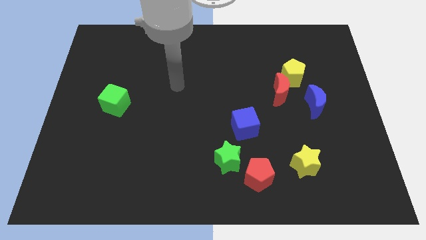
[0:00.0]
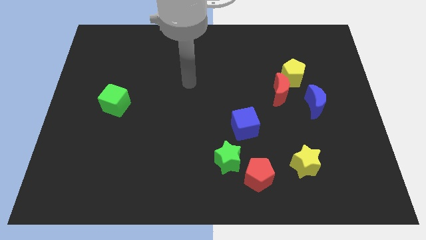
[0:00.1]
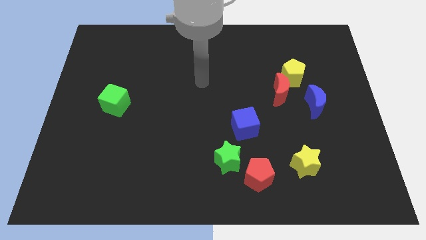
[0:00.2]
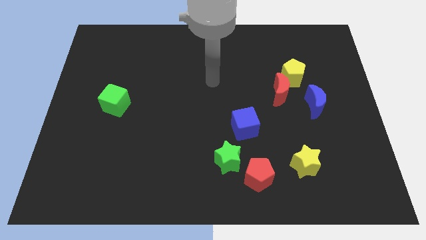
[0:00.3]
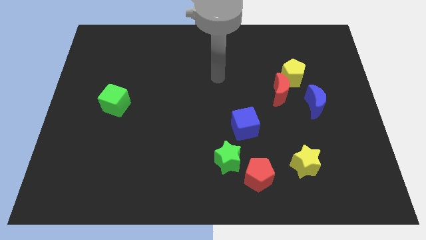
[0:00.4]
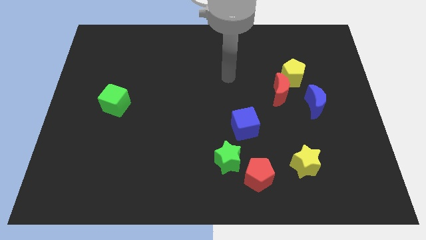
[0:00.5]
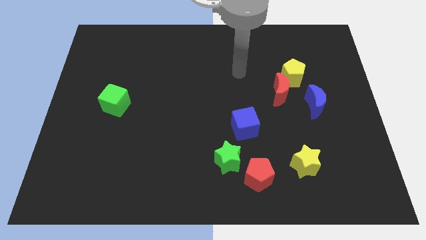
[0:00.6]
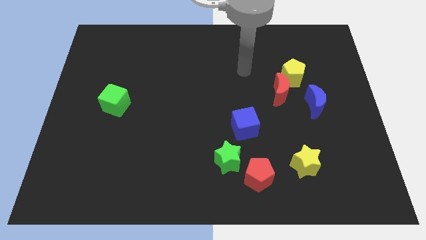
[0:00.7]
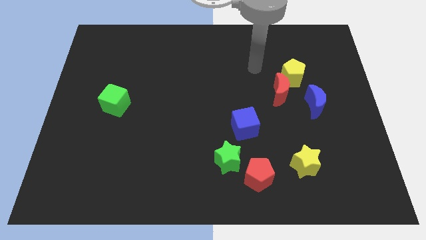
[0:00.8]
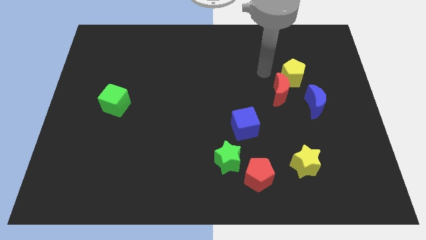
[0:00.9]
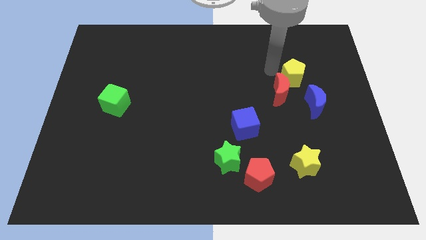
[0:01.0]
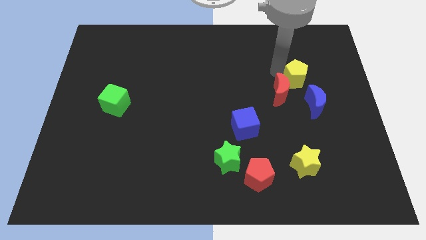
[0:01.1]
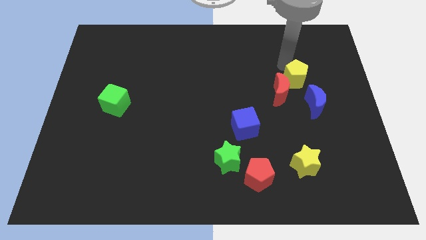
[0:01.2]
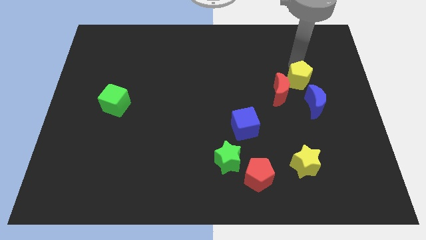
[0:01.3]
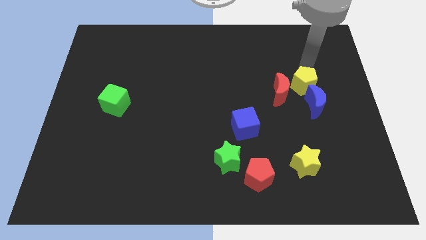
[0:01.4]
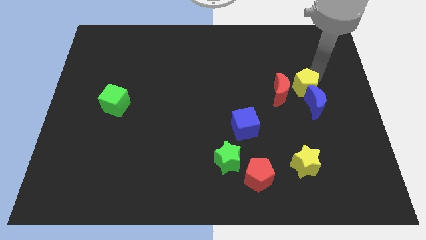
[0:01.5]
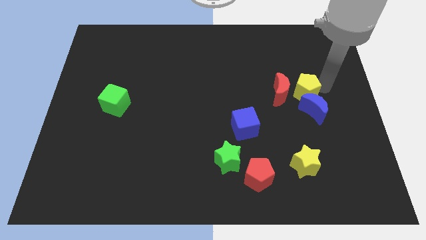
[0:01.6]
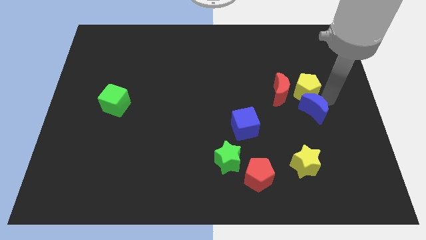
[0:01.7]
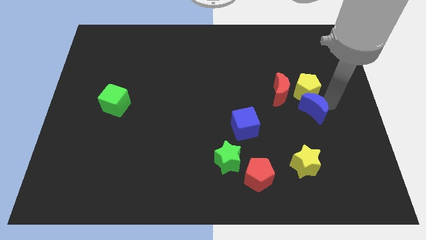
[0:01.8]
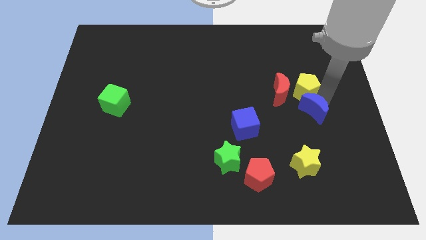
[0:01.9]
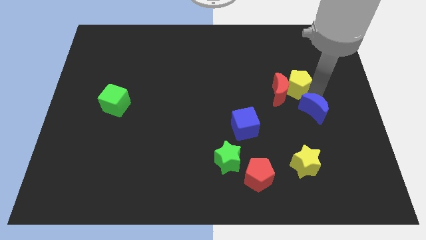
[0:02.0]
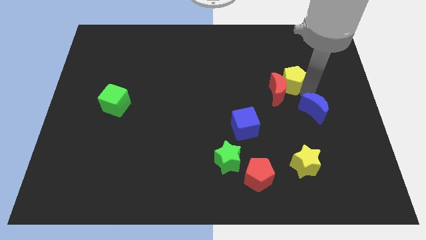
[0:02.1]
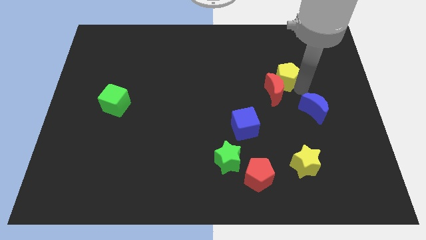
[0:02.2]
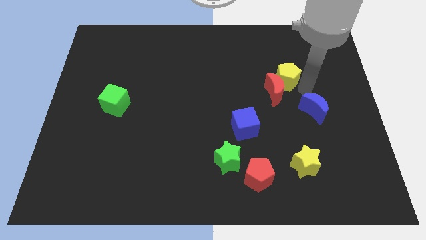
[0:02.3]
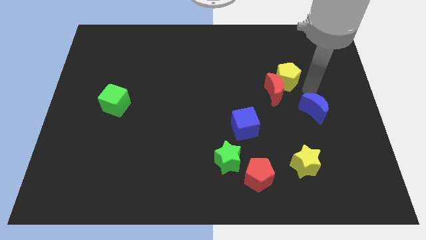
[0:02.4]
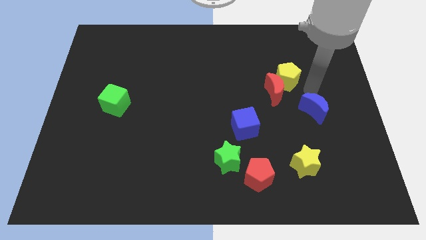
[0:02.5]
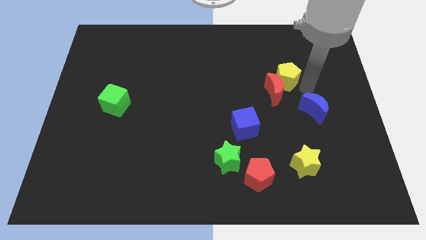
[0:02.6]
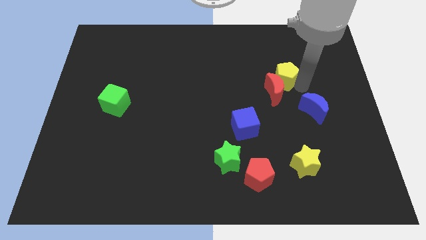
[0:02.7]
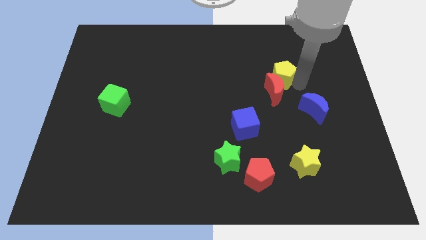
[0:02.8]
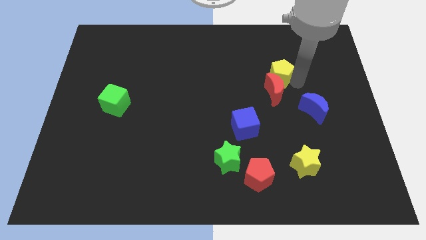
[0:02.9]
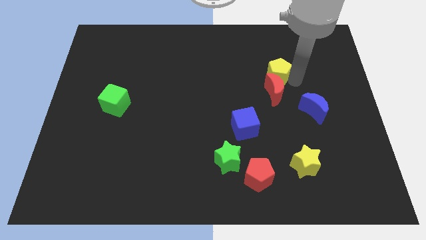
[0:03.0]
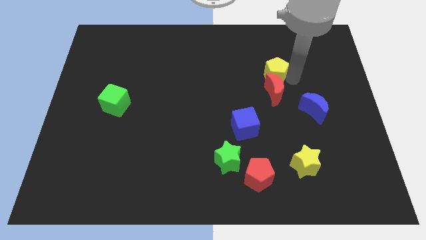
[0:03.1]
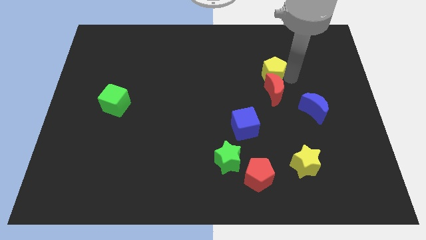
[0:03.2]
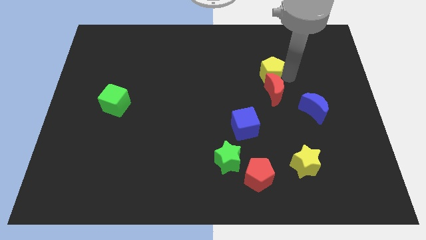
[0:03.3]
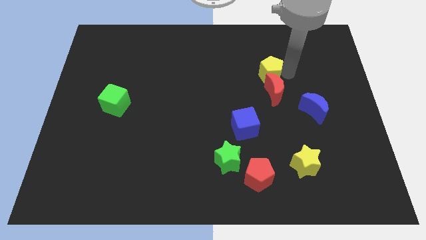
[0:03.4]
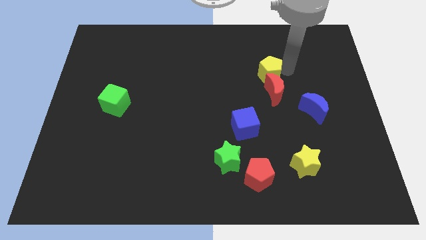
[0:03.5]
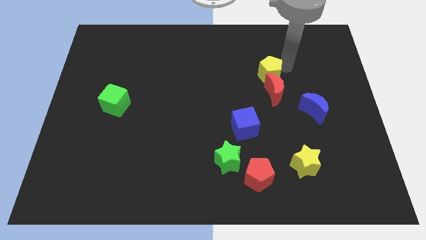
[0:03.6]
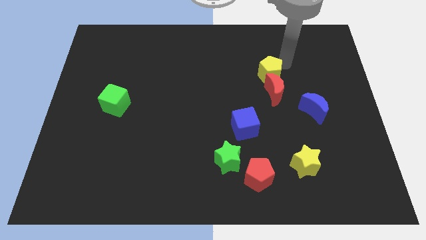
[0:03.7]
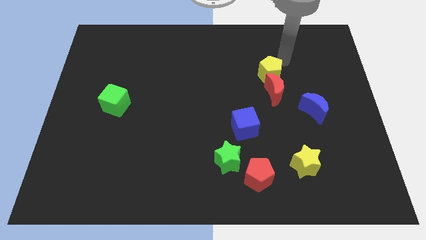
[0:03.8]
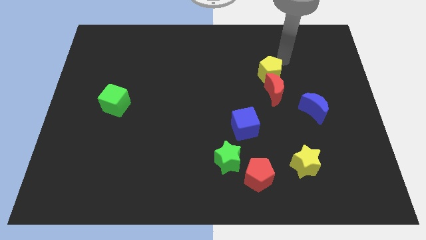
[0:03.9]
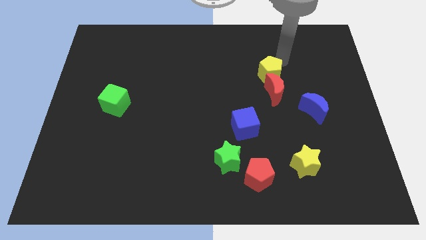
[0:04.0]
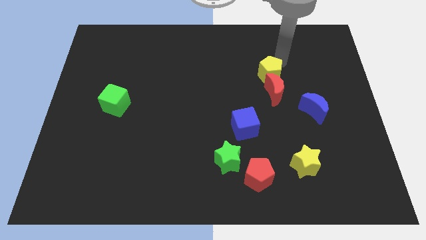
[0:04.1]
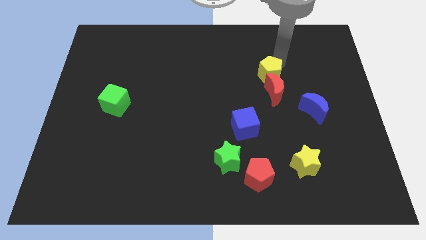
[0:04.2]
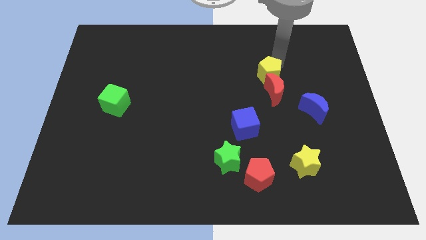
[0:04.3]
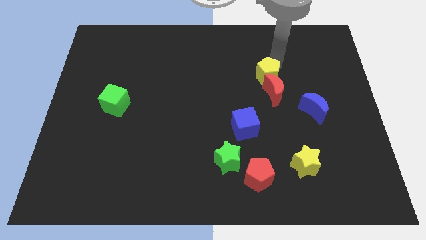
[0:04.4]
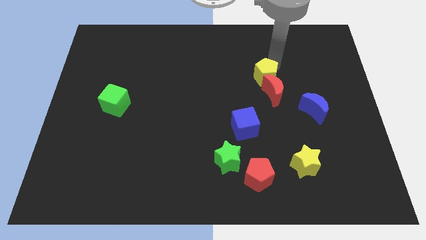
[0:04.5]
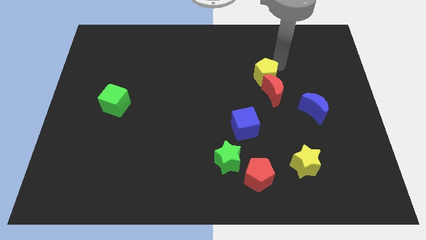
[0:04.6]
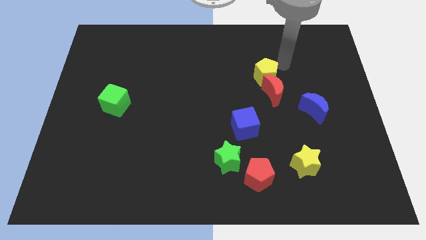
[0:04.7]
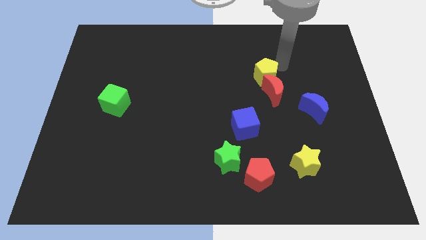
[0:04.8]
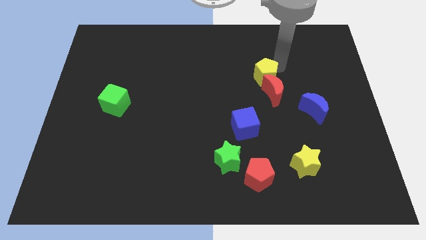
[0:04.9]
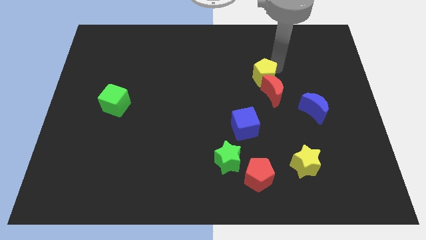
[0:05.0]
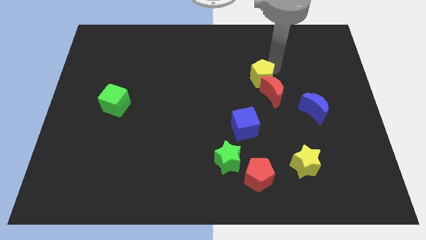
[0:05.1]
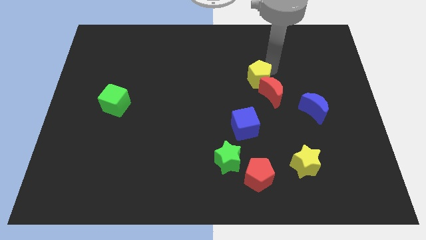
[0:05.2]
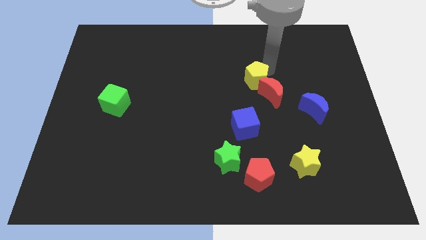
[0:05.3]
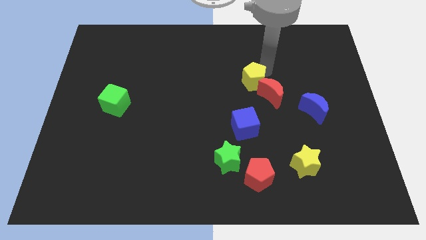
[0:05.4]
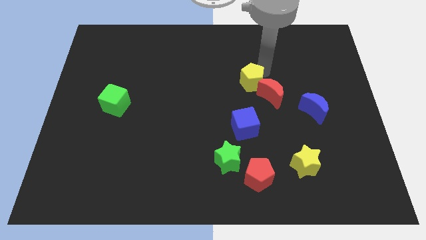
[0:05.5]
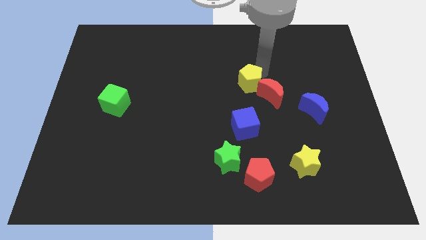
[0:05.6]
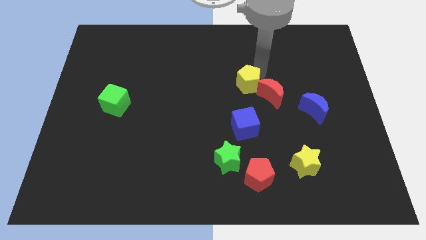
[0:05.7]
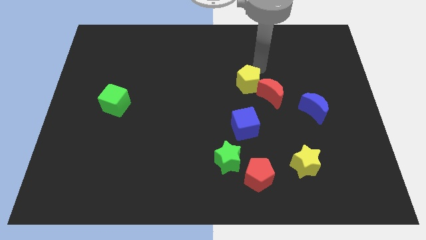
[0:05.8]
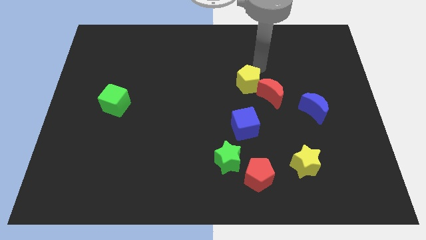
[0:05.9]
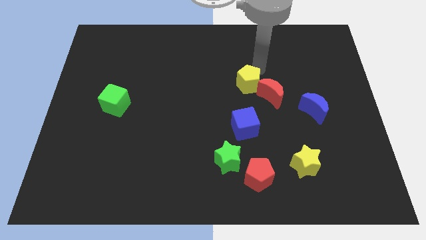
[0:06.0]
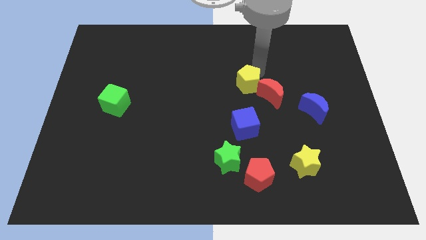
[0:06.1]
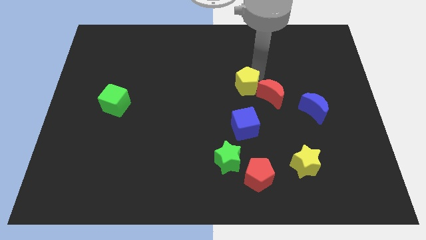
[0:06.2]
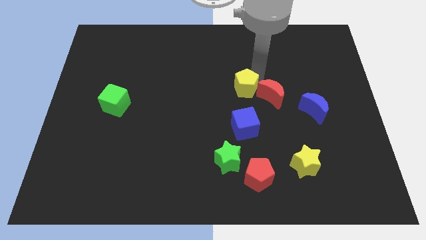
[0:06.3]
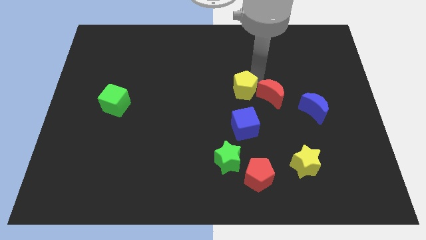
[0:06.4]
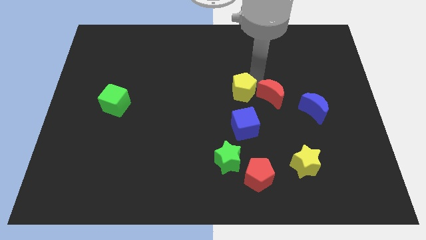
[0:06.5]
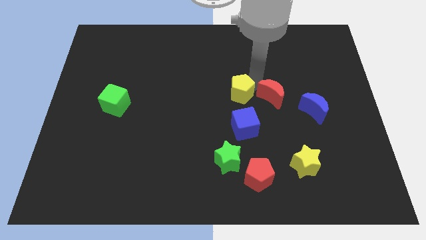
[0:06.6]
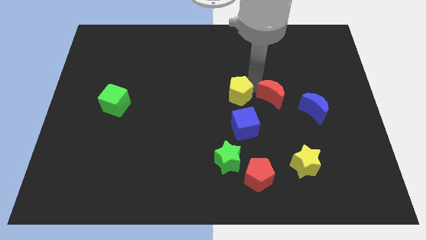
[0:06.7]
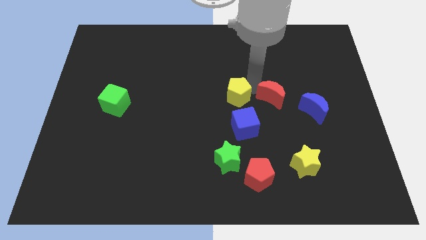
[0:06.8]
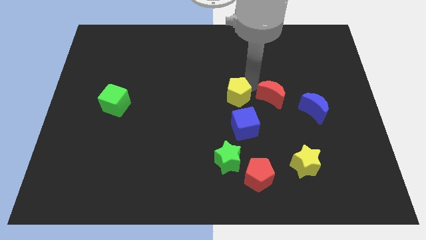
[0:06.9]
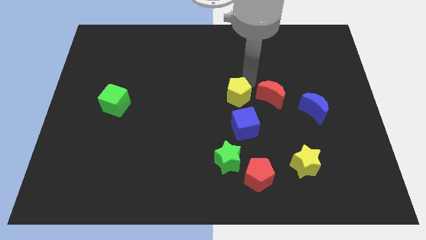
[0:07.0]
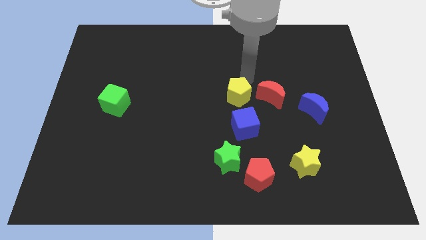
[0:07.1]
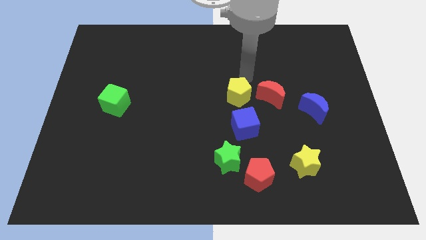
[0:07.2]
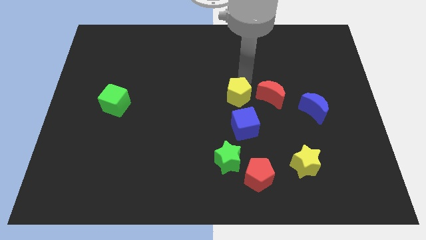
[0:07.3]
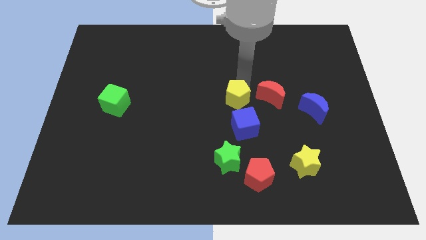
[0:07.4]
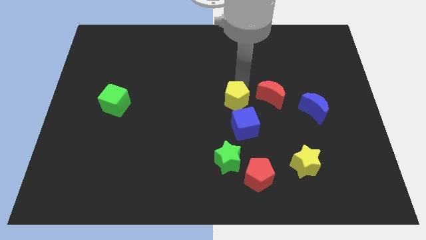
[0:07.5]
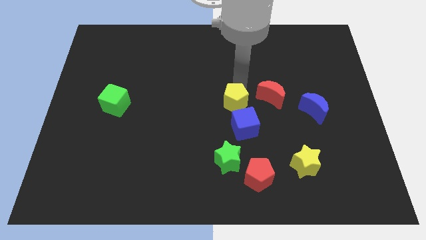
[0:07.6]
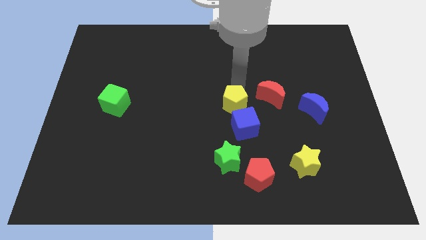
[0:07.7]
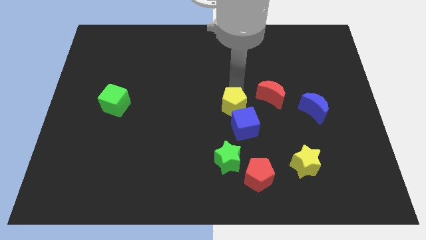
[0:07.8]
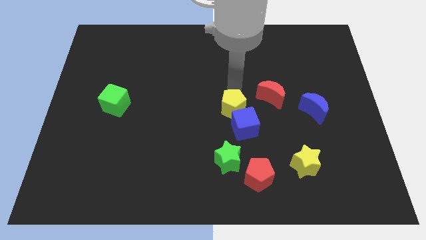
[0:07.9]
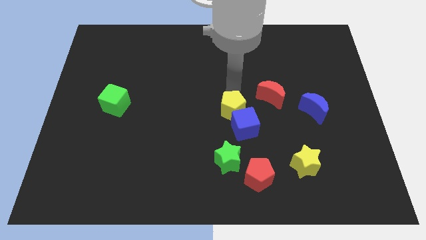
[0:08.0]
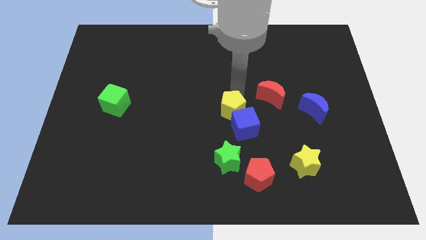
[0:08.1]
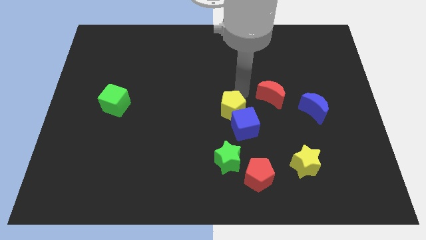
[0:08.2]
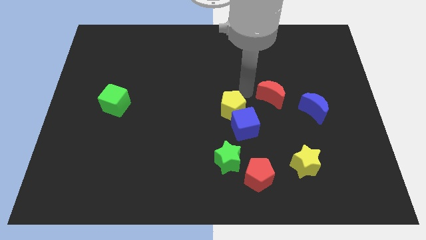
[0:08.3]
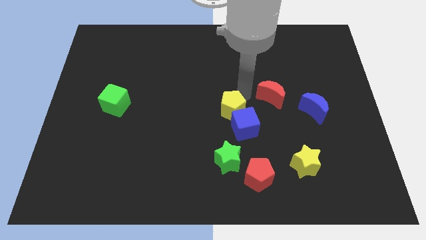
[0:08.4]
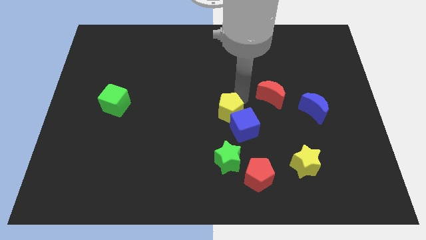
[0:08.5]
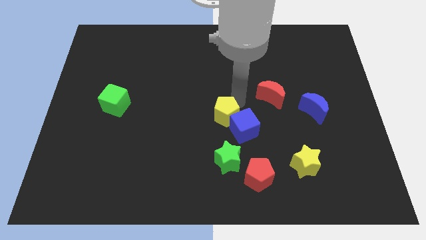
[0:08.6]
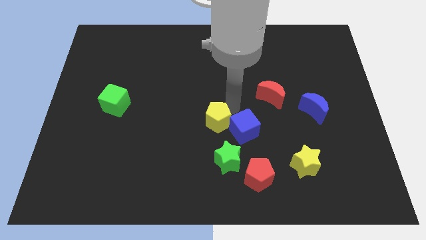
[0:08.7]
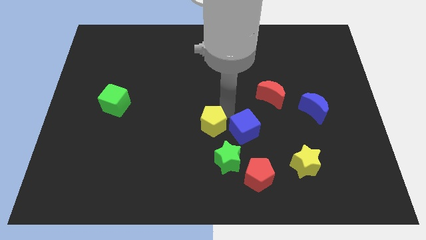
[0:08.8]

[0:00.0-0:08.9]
slide the yellow pentagon diagonally up and to the left of the green star
